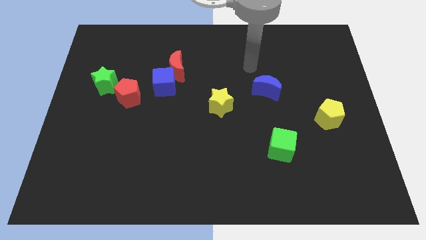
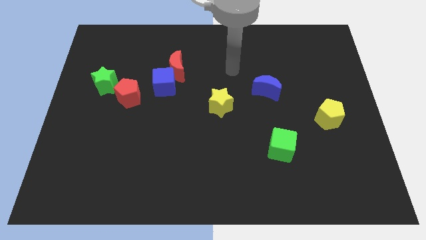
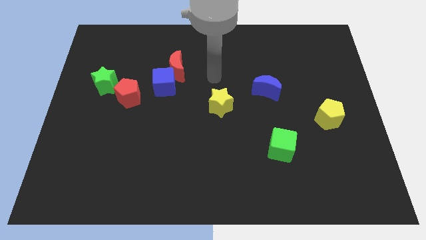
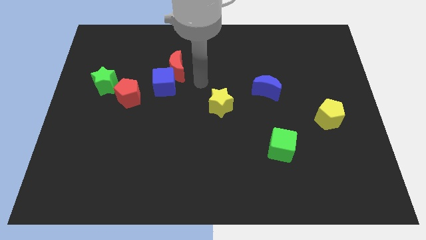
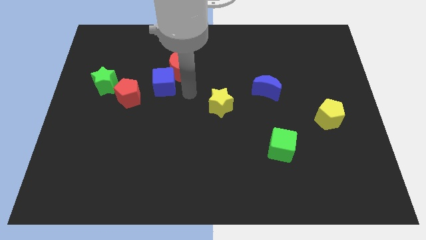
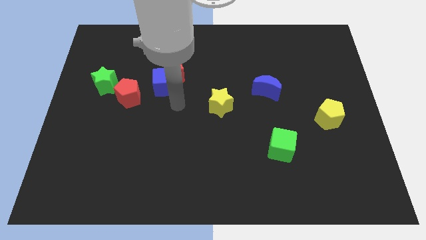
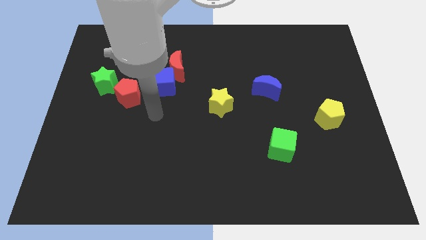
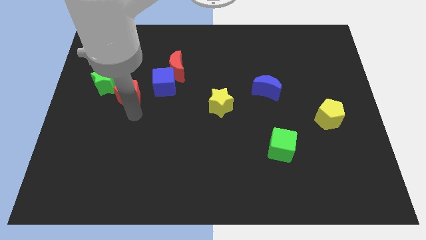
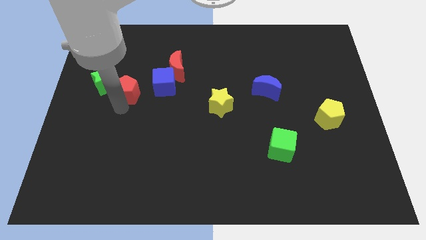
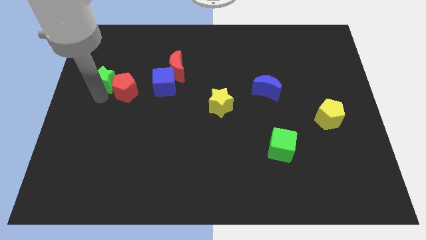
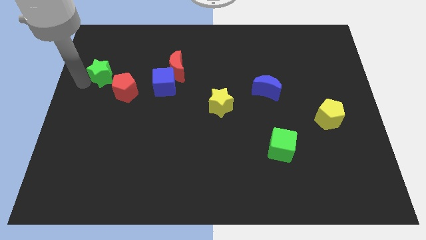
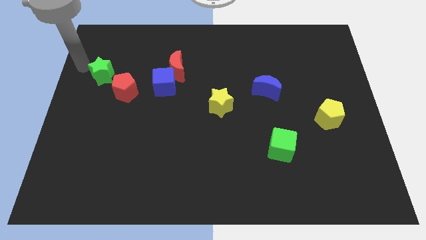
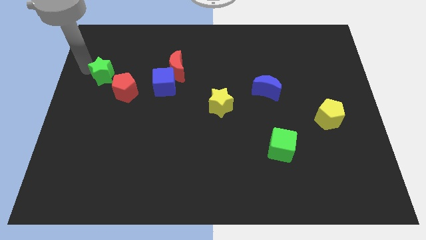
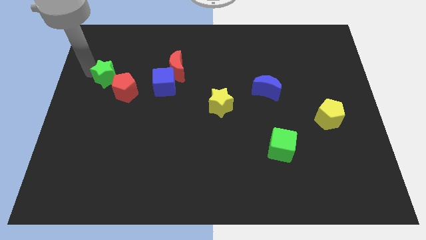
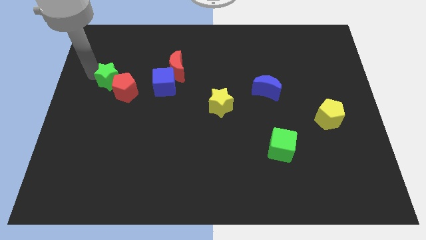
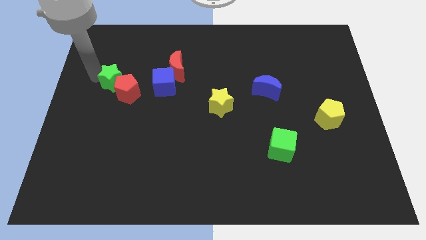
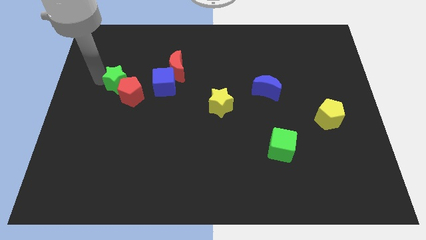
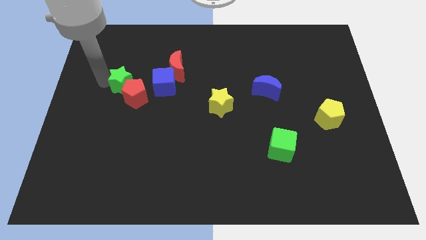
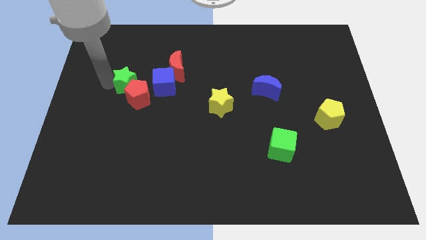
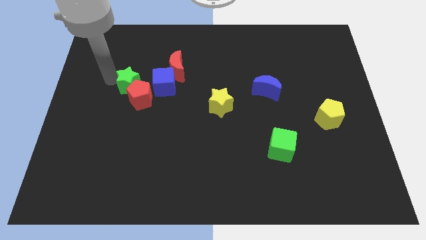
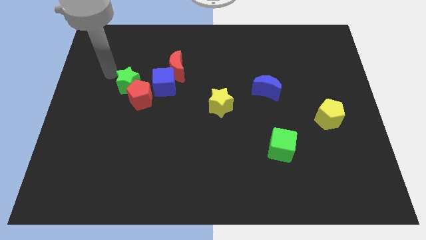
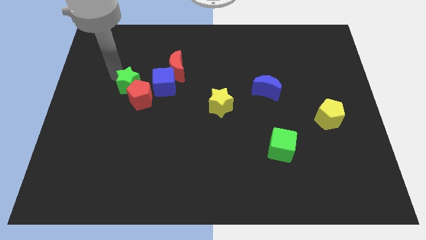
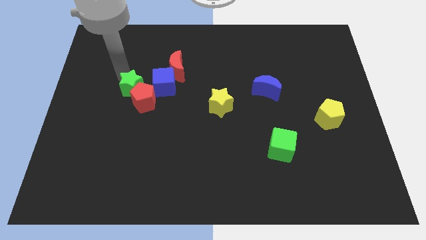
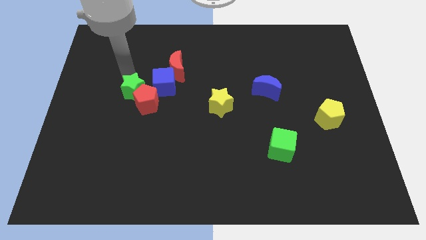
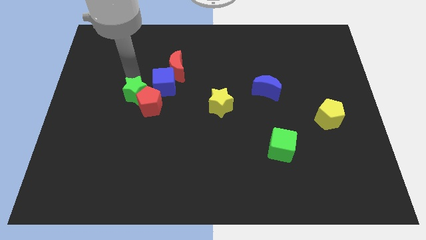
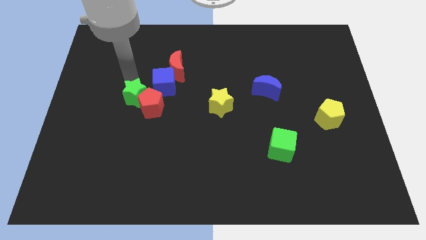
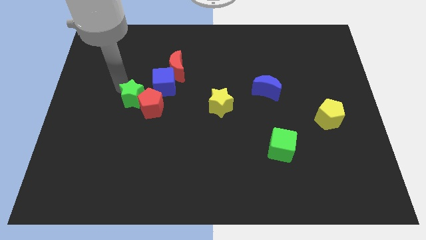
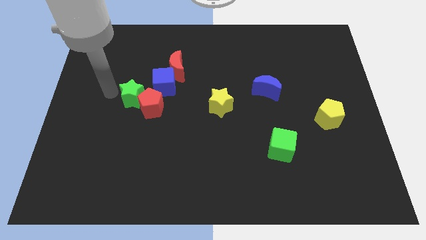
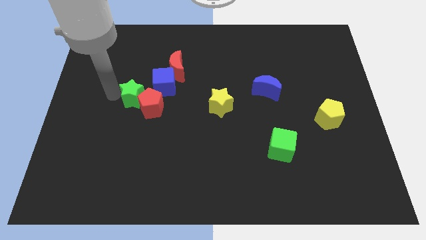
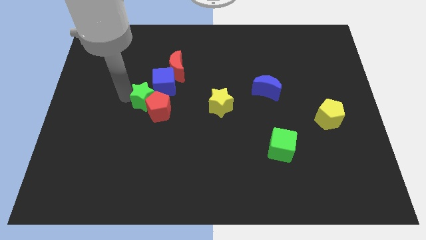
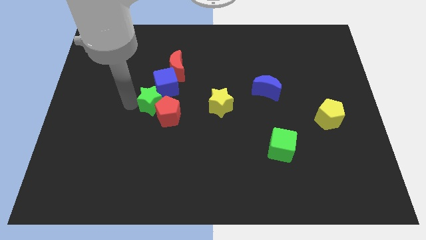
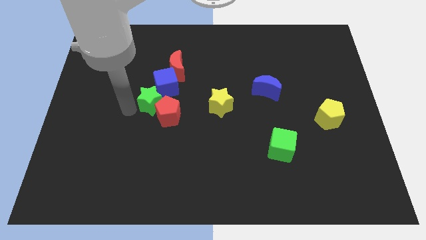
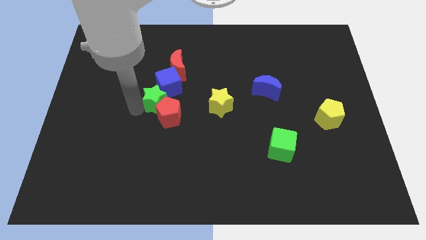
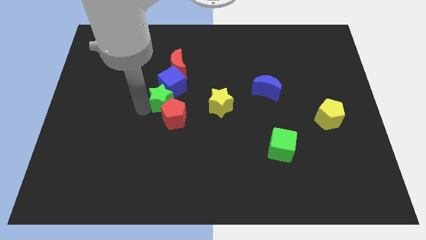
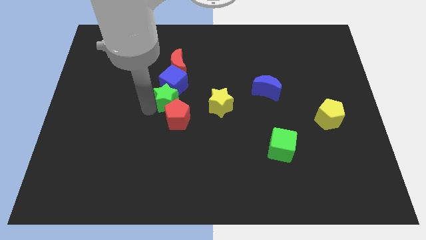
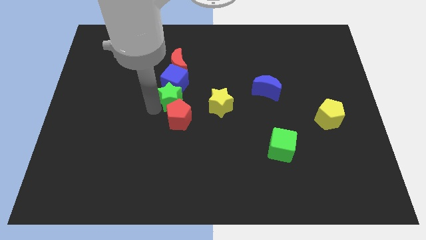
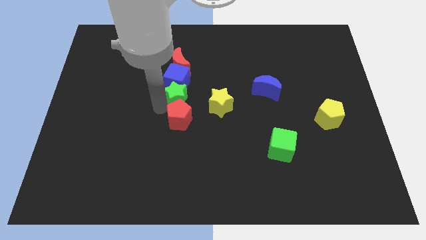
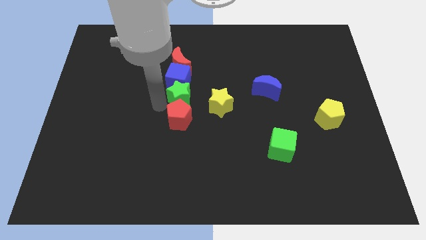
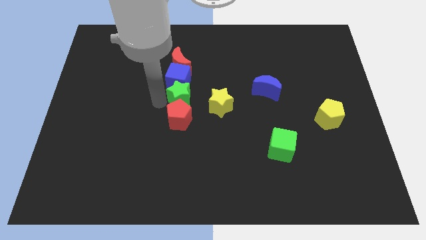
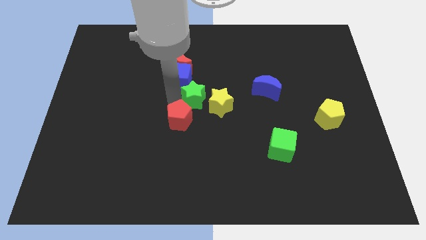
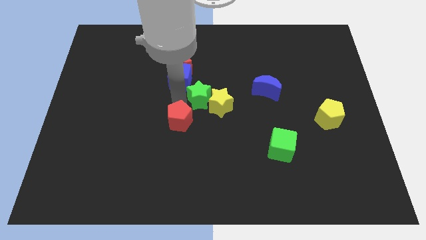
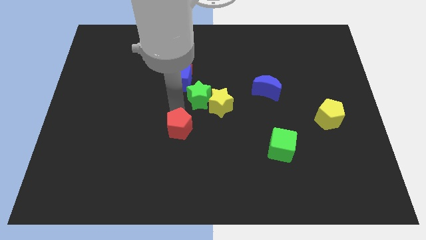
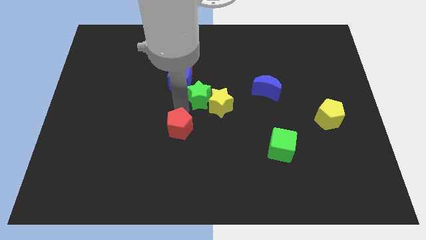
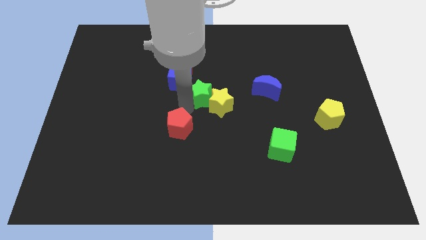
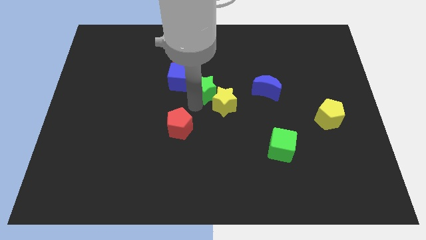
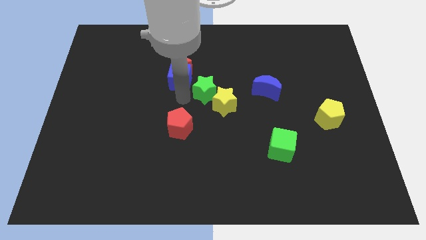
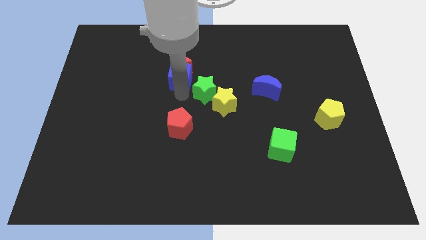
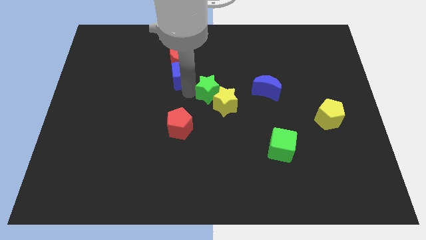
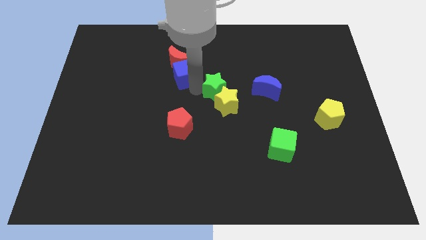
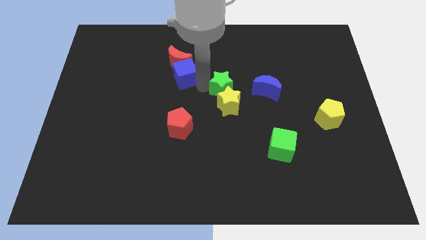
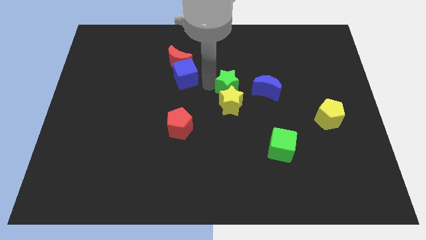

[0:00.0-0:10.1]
move the green star to the top right side of the yellow star

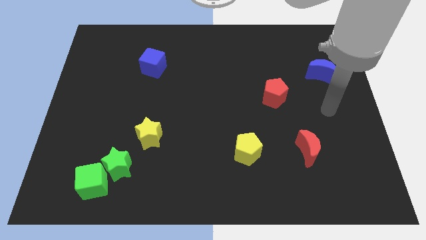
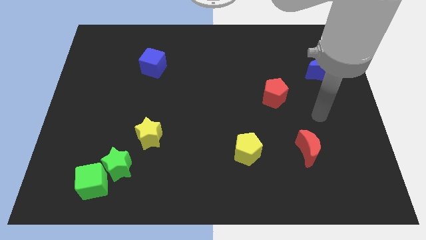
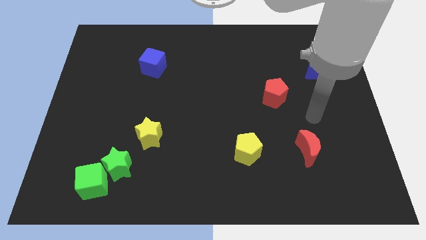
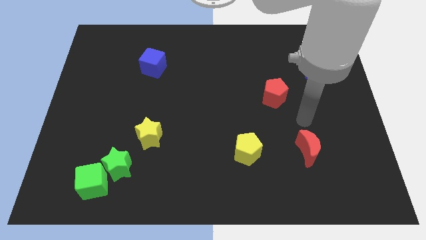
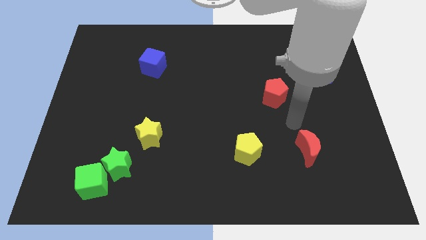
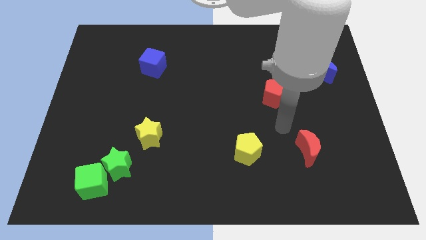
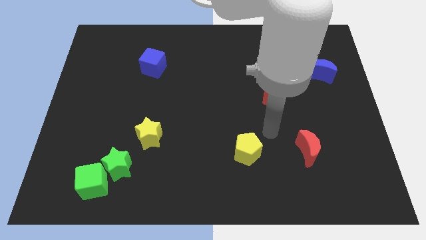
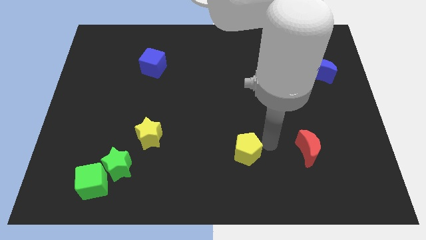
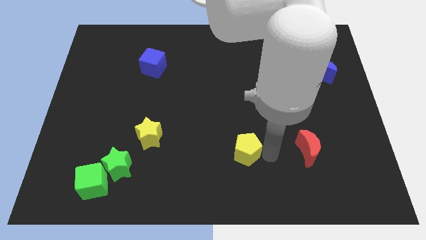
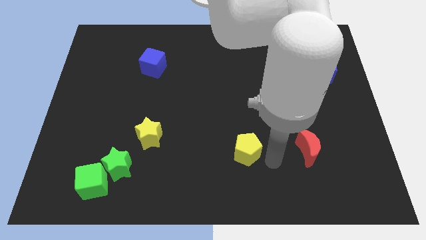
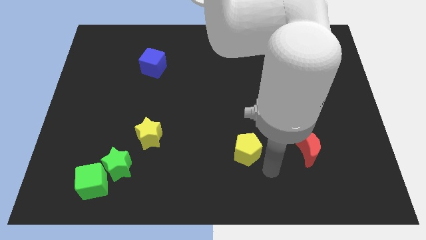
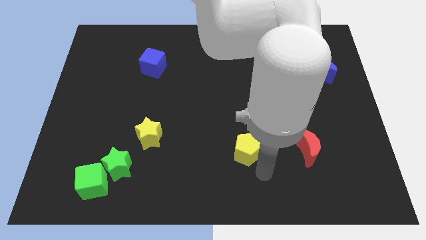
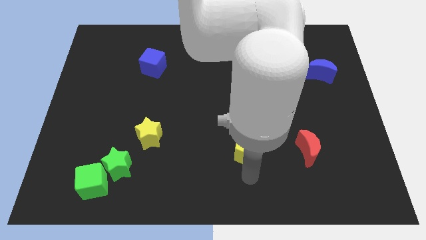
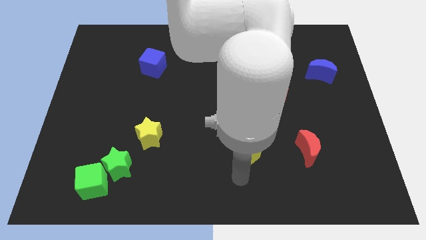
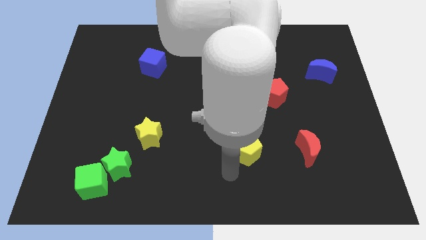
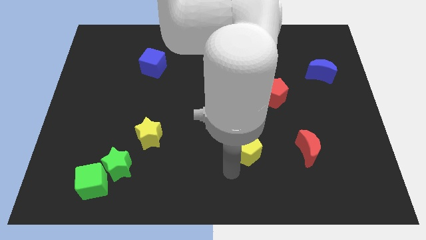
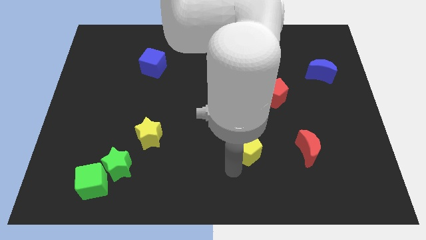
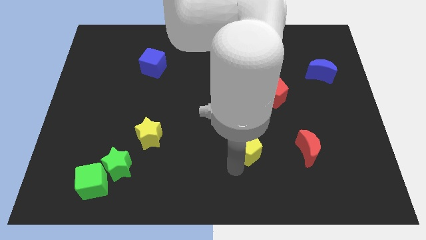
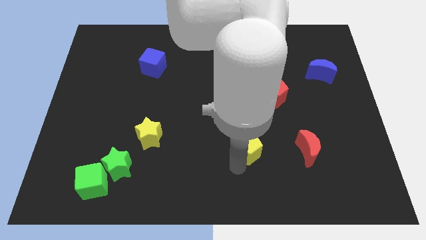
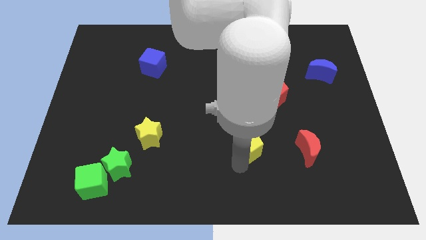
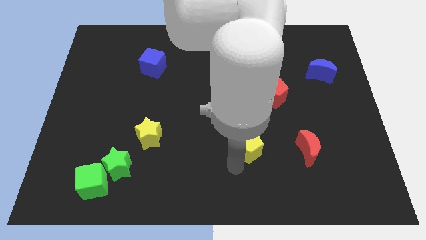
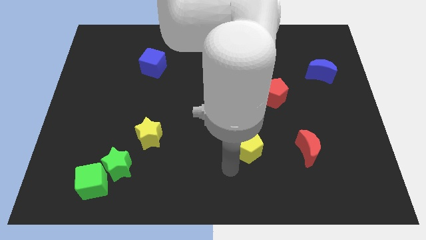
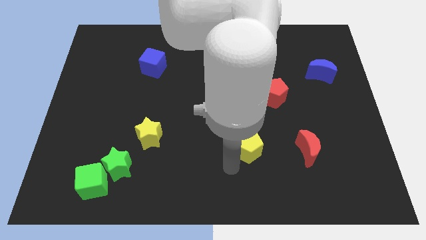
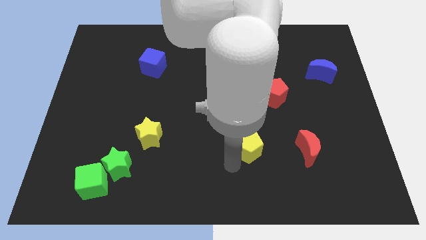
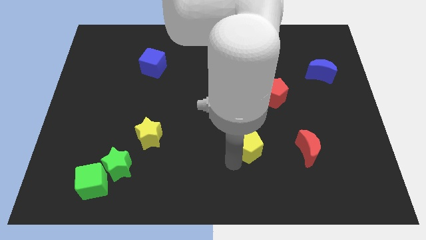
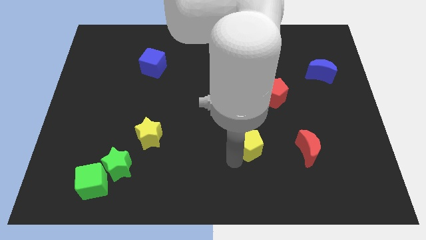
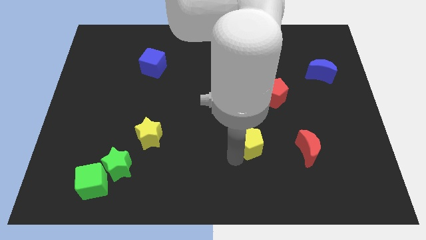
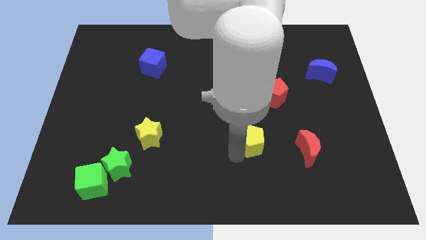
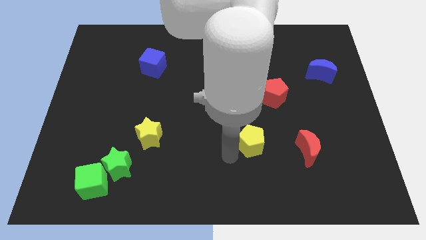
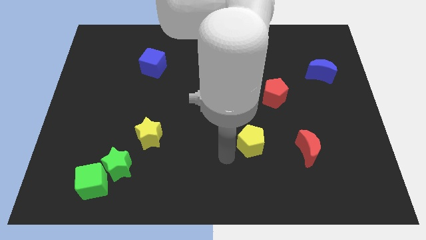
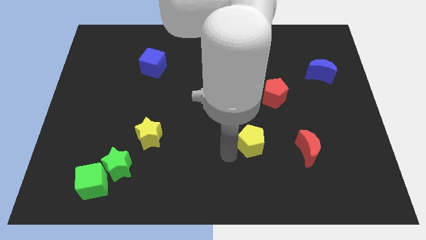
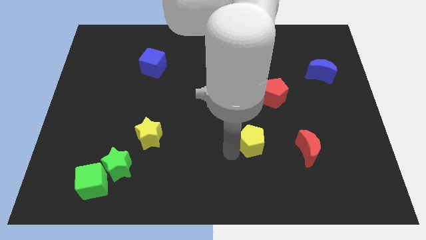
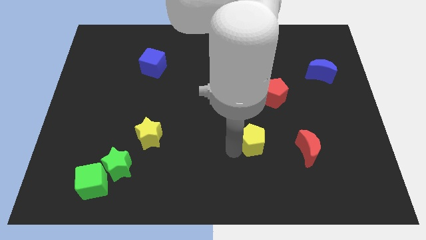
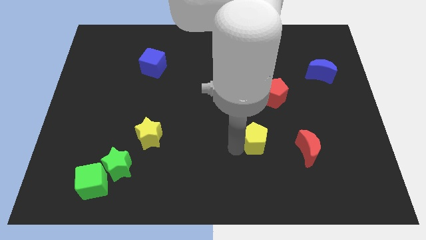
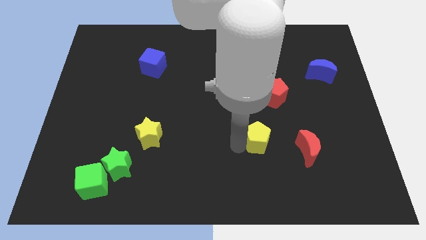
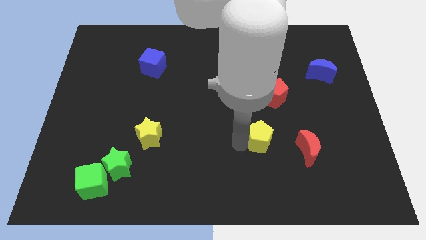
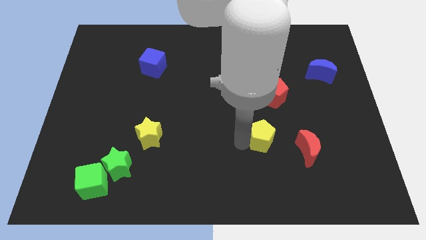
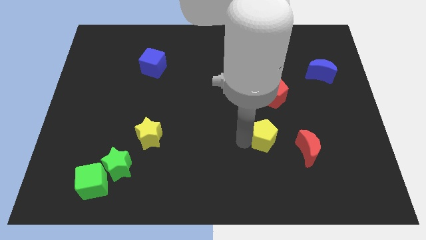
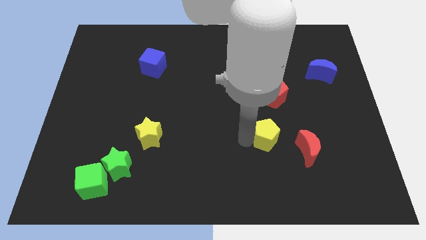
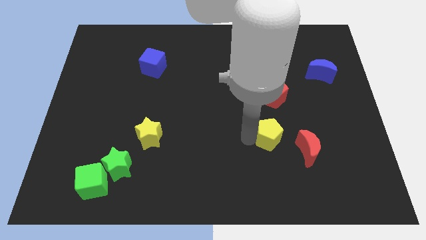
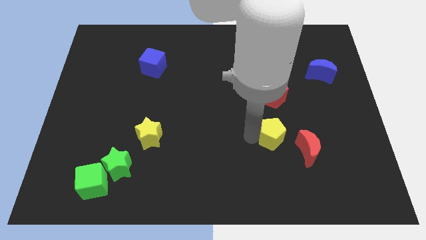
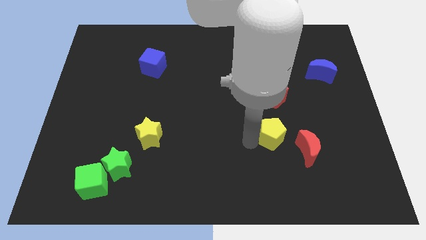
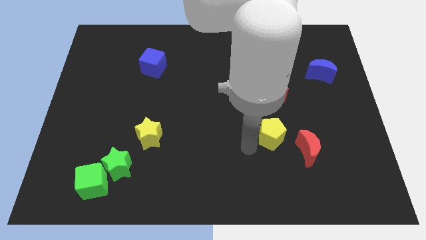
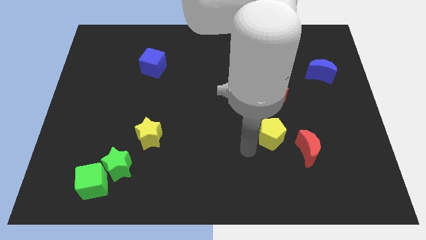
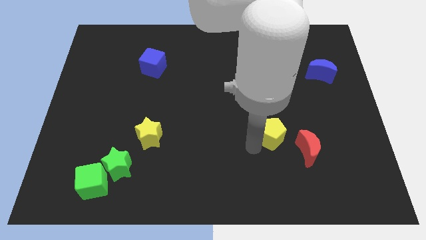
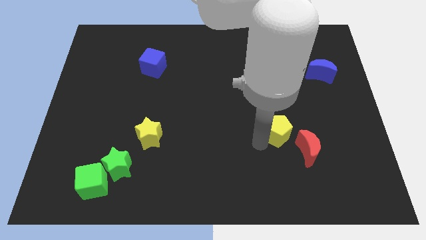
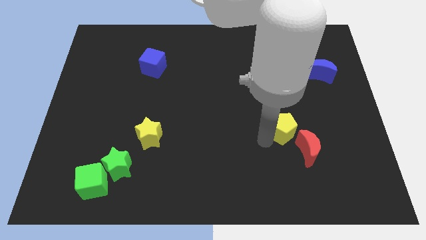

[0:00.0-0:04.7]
push the yellow pentagon to the top side of the red moon
